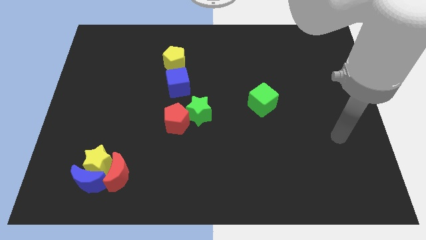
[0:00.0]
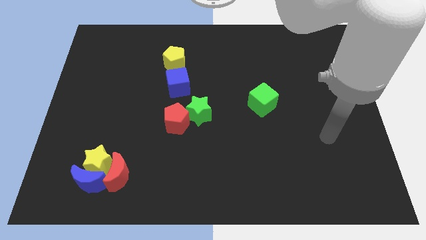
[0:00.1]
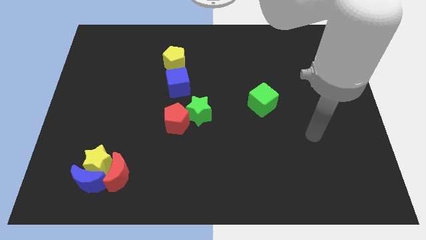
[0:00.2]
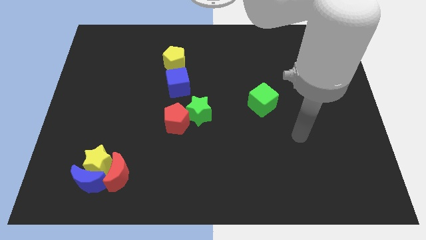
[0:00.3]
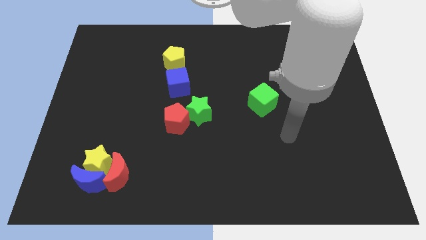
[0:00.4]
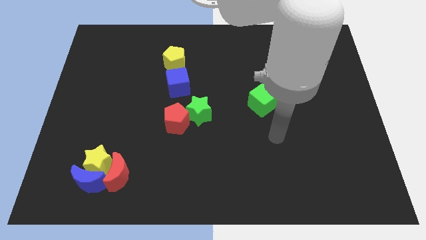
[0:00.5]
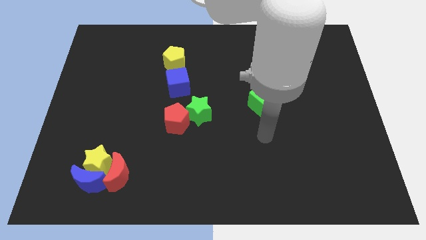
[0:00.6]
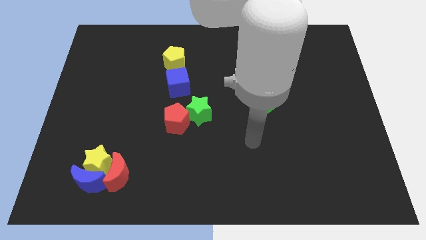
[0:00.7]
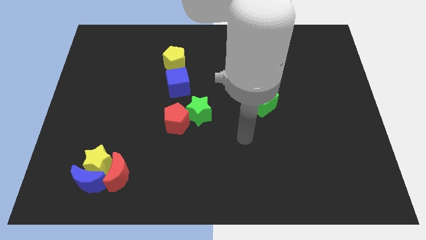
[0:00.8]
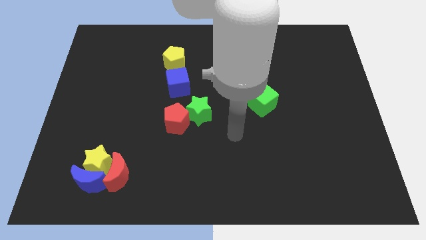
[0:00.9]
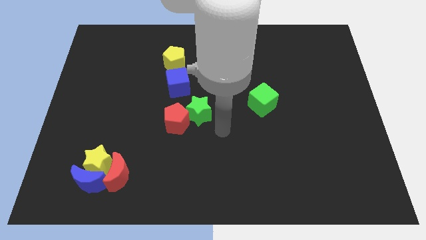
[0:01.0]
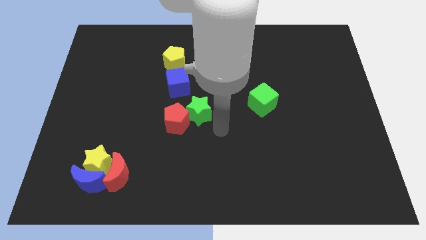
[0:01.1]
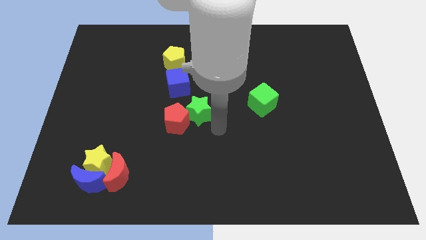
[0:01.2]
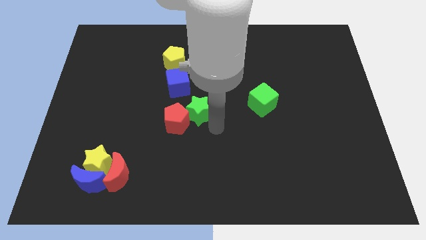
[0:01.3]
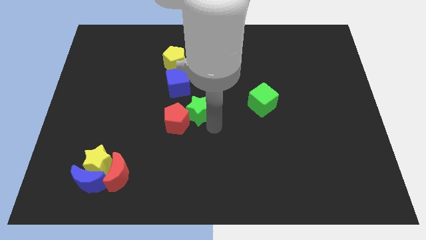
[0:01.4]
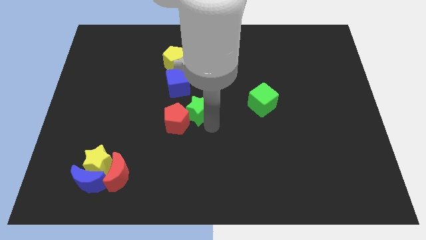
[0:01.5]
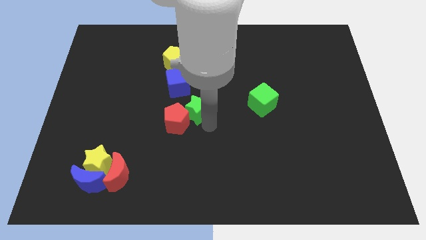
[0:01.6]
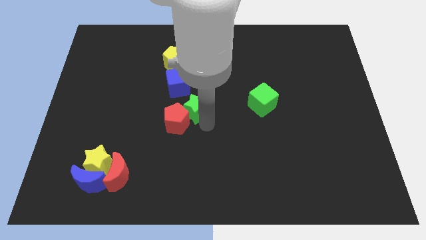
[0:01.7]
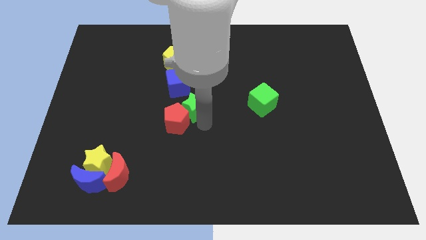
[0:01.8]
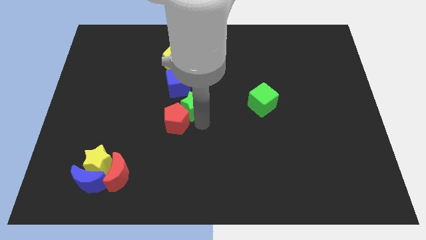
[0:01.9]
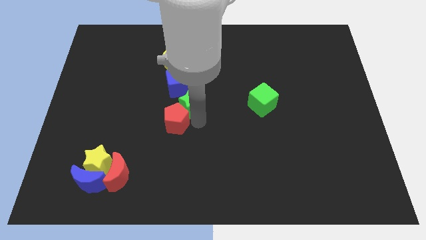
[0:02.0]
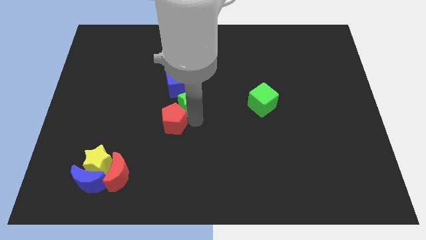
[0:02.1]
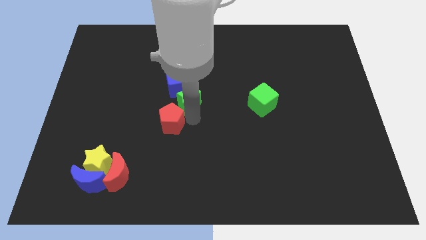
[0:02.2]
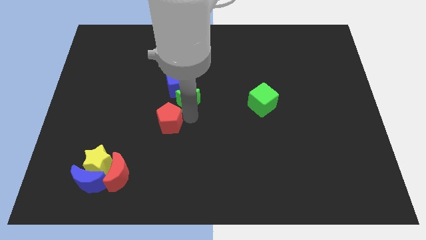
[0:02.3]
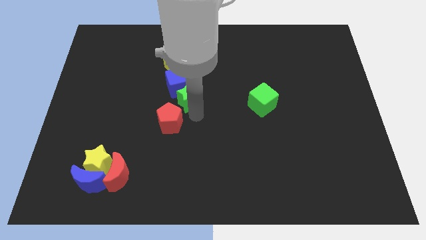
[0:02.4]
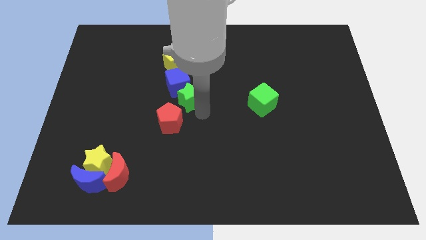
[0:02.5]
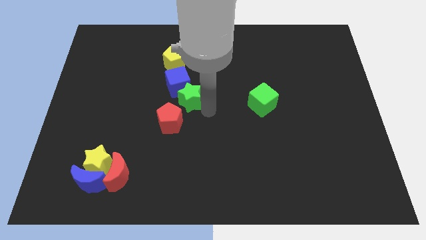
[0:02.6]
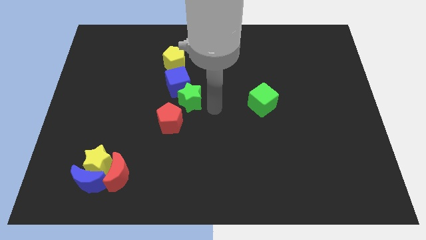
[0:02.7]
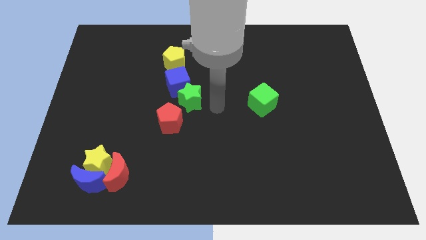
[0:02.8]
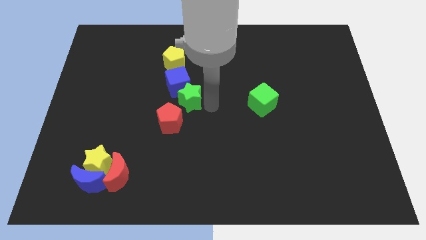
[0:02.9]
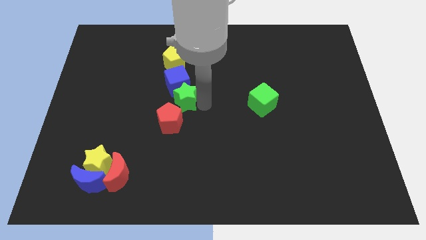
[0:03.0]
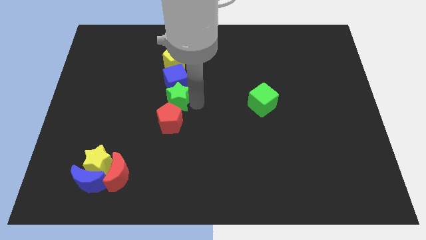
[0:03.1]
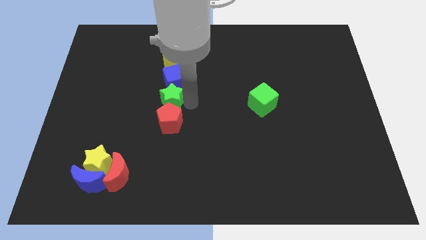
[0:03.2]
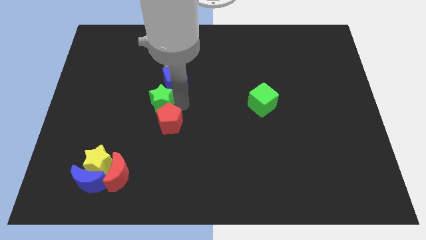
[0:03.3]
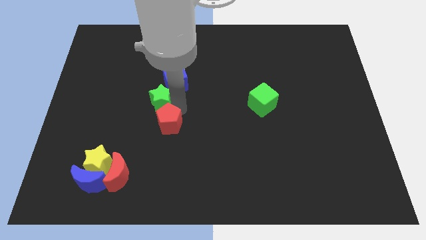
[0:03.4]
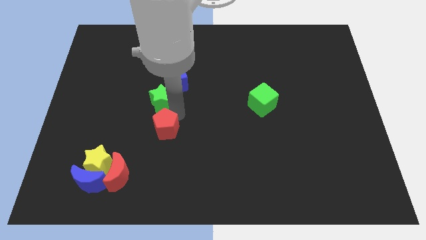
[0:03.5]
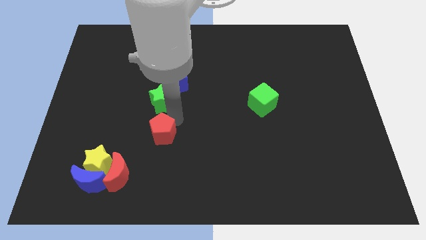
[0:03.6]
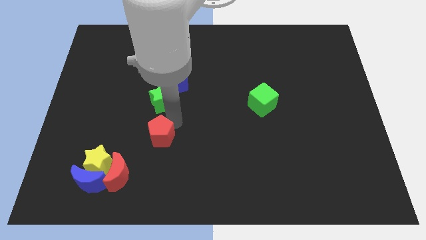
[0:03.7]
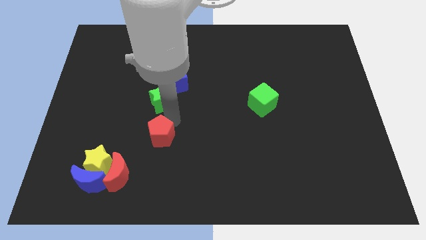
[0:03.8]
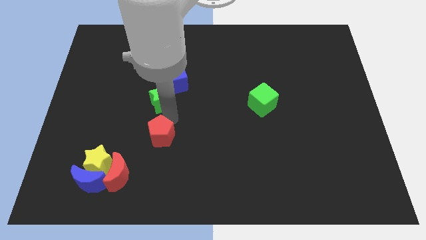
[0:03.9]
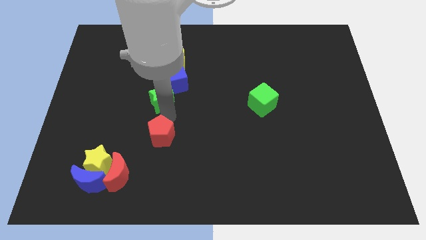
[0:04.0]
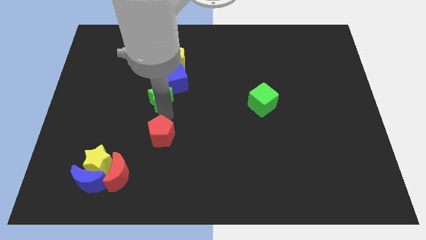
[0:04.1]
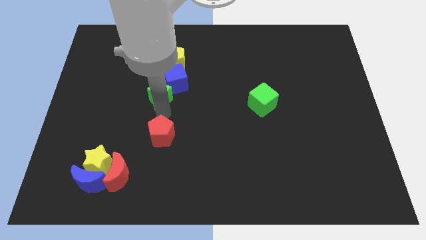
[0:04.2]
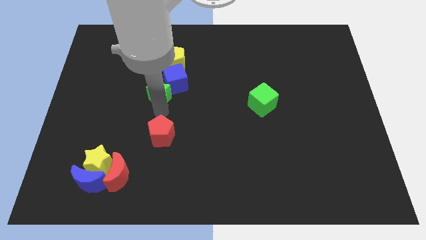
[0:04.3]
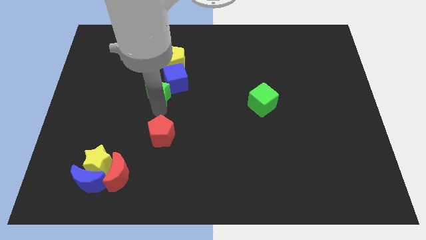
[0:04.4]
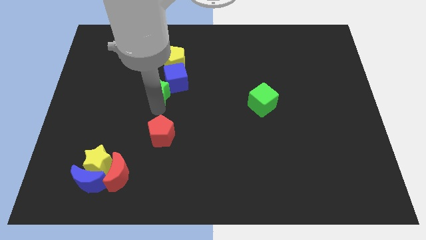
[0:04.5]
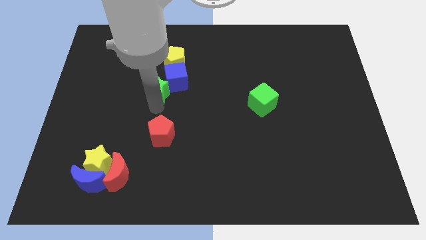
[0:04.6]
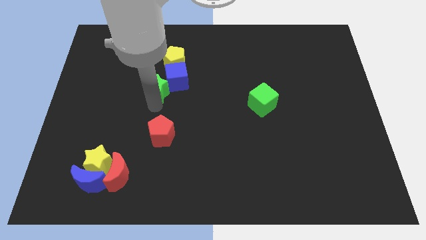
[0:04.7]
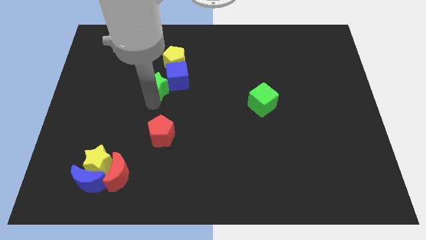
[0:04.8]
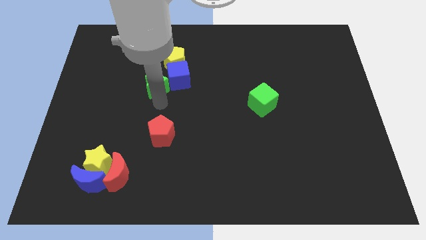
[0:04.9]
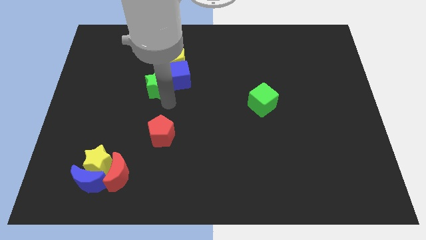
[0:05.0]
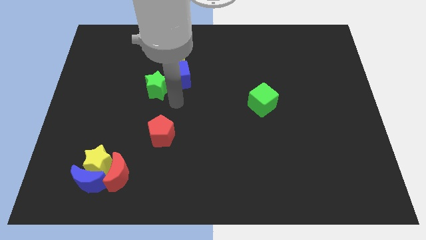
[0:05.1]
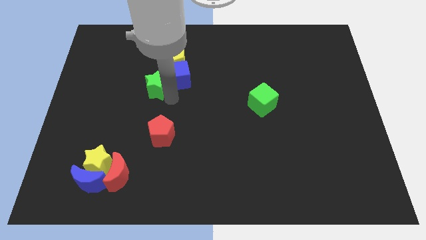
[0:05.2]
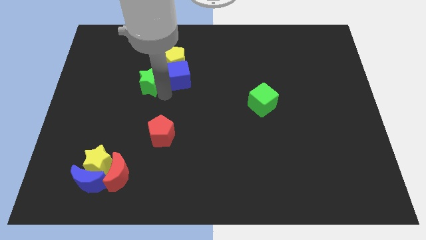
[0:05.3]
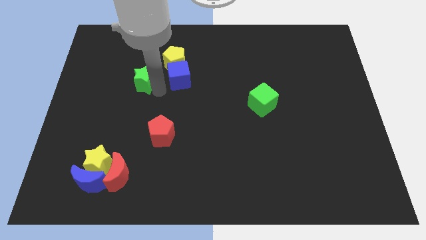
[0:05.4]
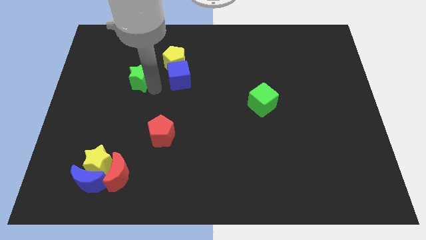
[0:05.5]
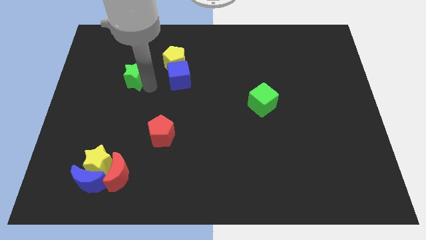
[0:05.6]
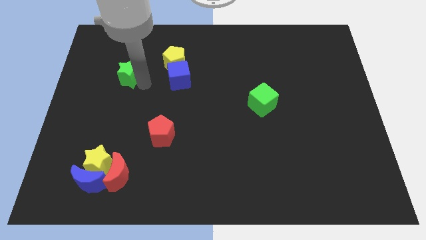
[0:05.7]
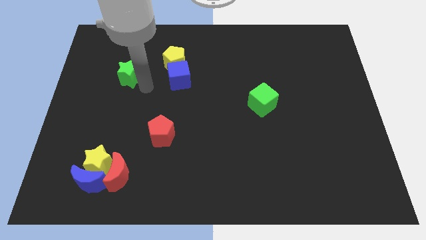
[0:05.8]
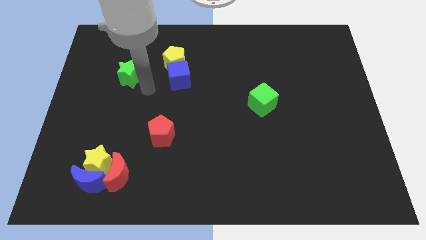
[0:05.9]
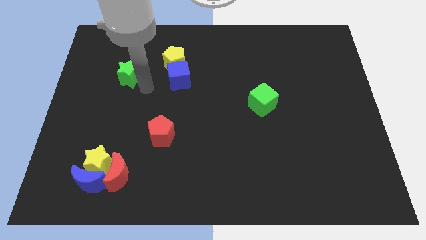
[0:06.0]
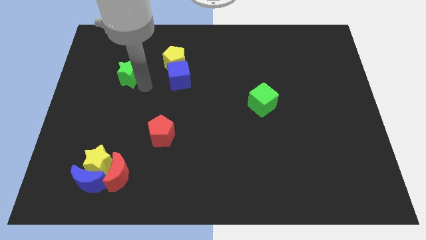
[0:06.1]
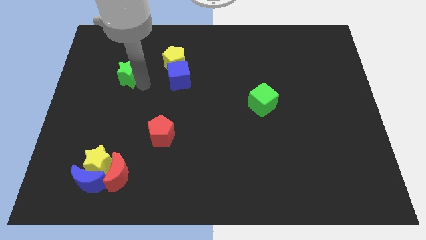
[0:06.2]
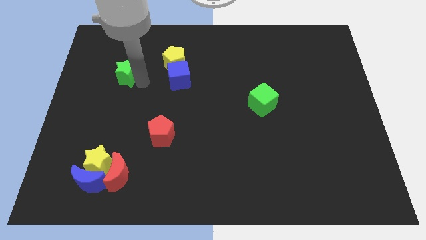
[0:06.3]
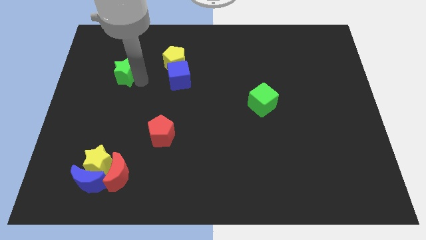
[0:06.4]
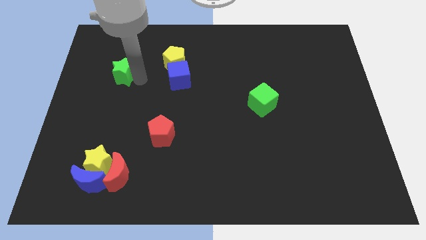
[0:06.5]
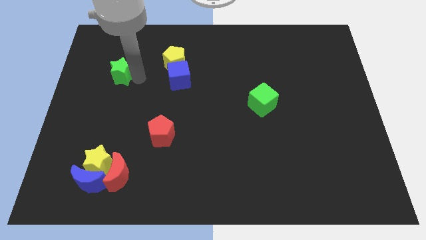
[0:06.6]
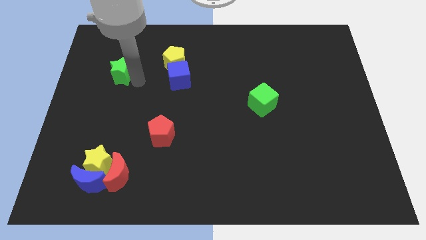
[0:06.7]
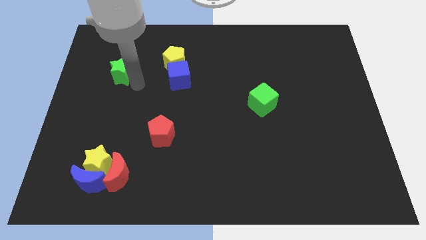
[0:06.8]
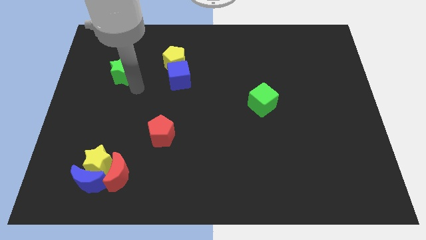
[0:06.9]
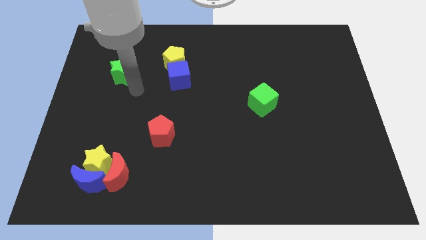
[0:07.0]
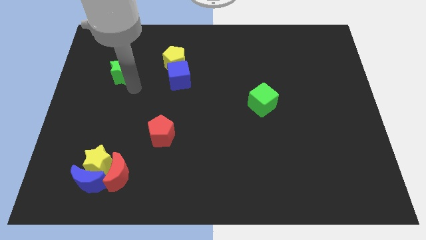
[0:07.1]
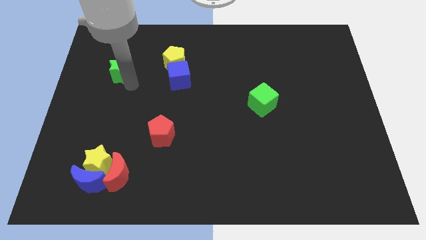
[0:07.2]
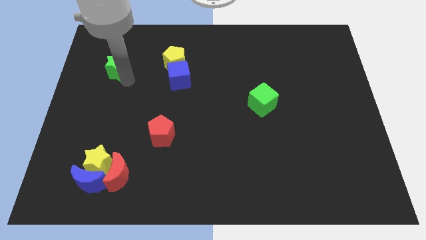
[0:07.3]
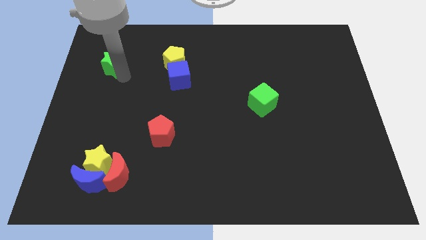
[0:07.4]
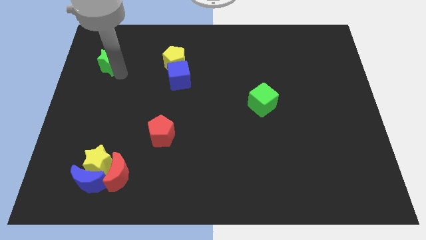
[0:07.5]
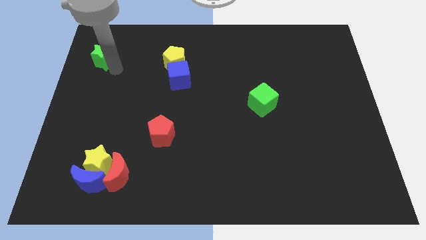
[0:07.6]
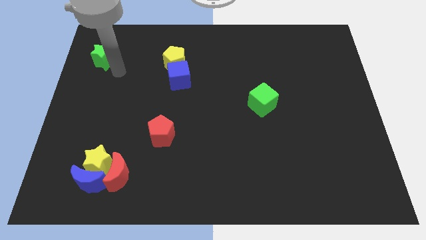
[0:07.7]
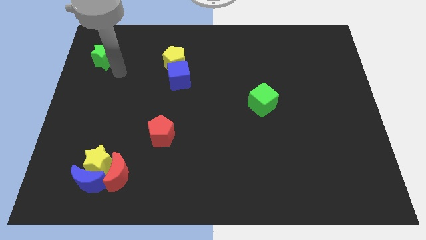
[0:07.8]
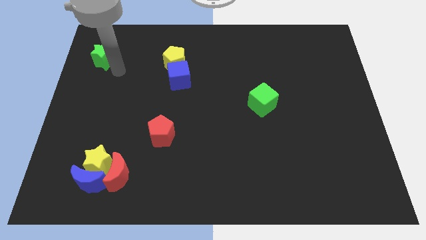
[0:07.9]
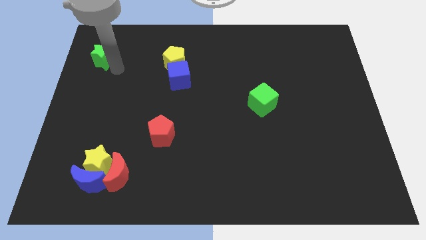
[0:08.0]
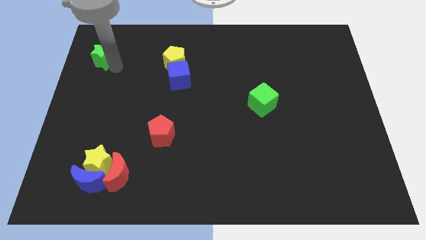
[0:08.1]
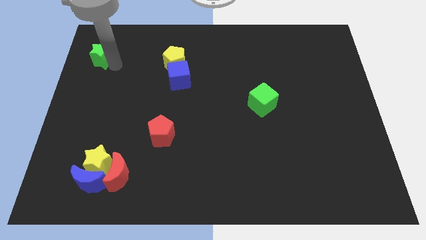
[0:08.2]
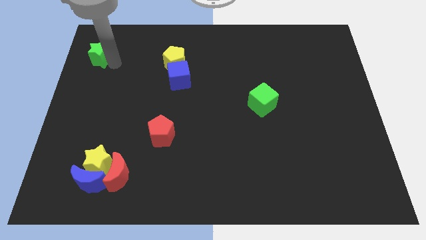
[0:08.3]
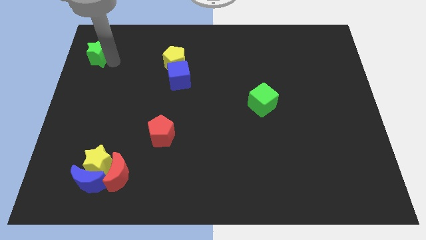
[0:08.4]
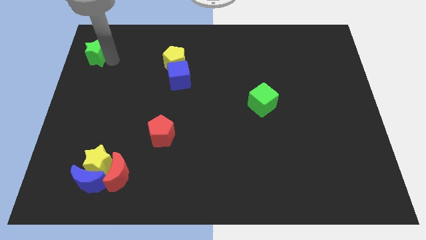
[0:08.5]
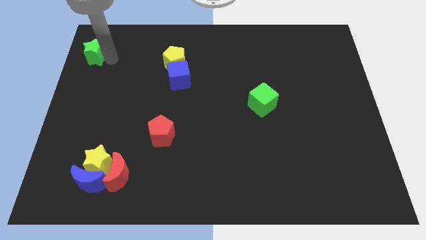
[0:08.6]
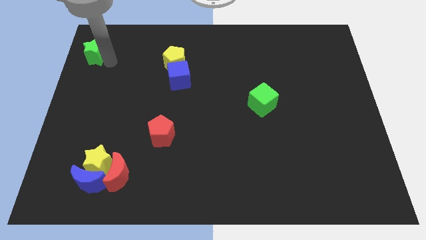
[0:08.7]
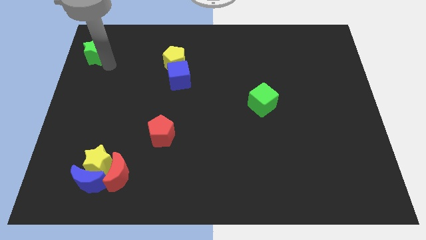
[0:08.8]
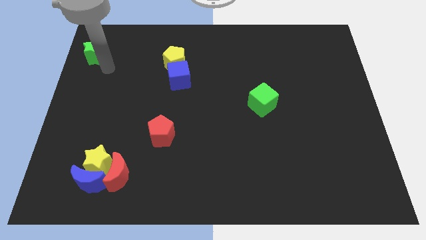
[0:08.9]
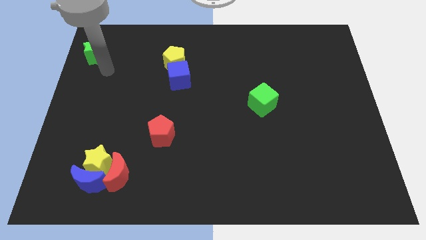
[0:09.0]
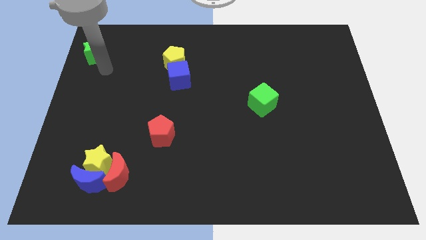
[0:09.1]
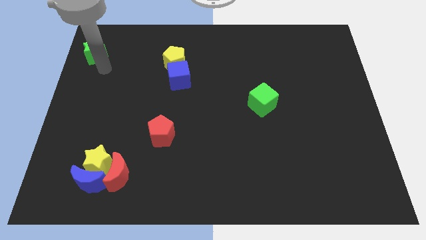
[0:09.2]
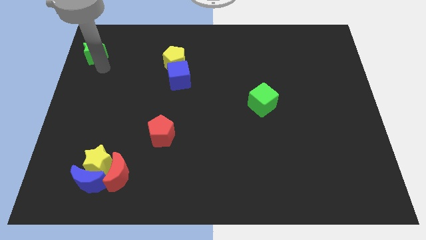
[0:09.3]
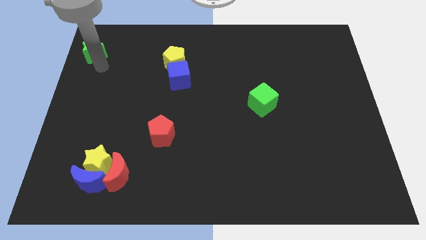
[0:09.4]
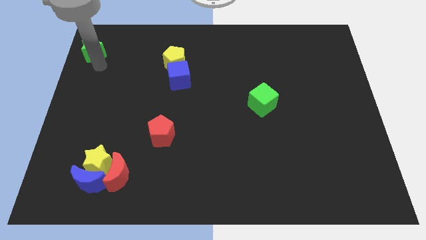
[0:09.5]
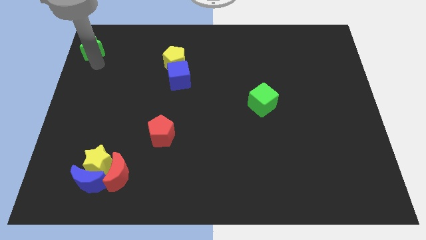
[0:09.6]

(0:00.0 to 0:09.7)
push the green star to the top left corner
